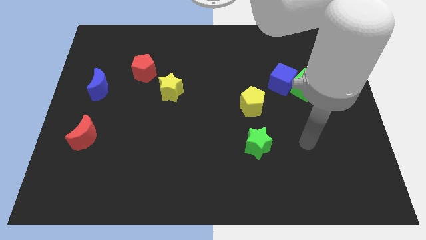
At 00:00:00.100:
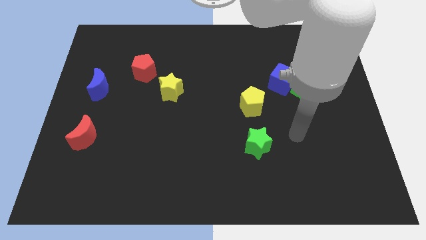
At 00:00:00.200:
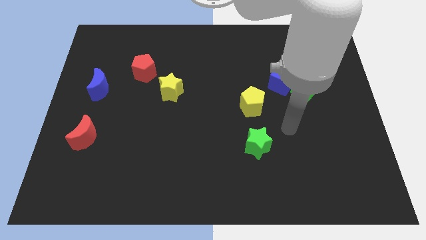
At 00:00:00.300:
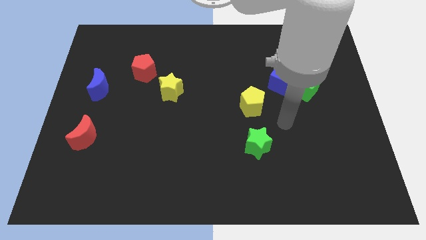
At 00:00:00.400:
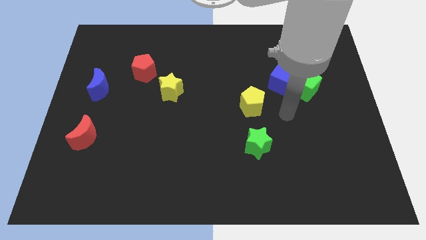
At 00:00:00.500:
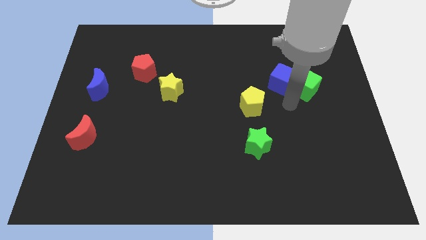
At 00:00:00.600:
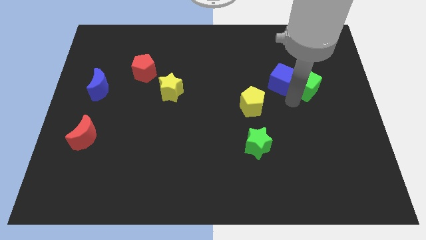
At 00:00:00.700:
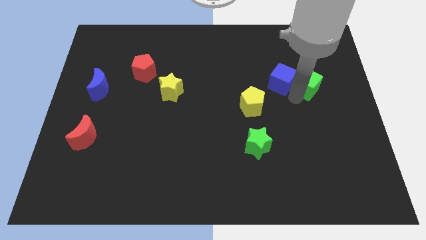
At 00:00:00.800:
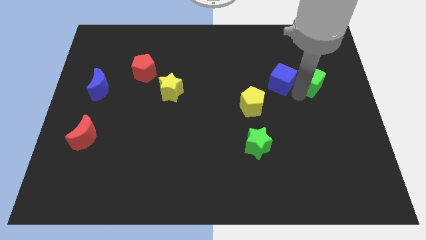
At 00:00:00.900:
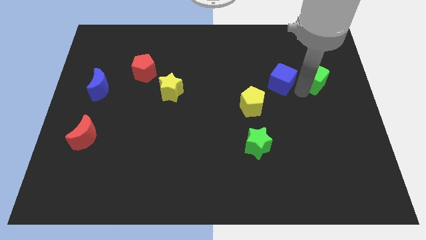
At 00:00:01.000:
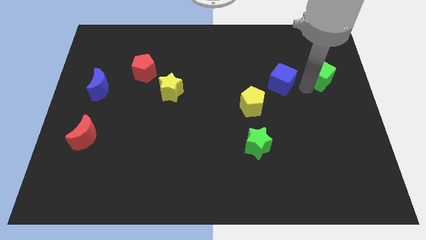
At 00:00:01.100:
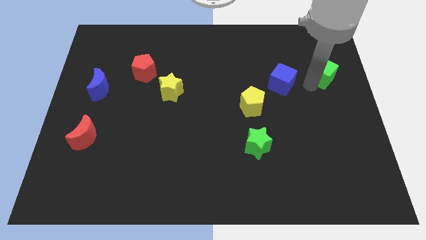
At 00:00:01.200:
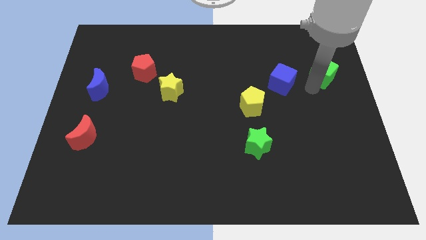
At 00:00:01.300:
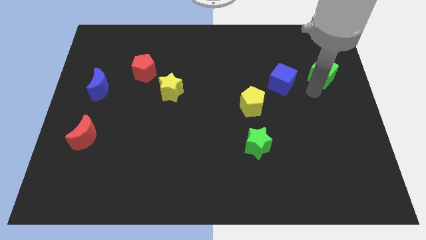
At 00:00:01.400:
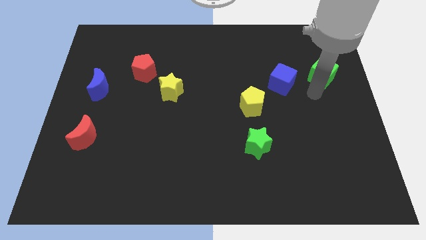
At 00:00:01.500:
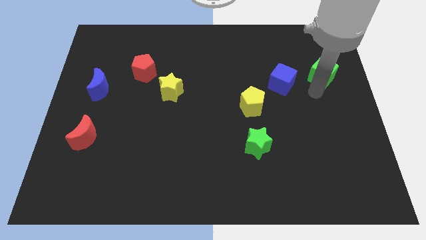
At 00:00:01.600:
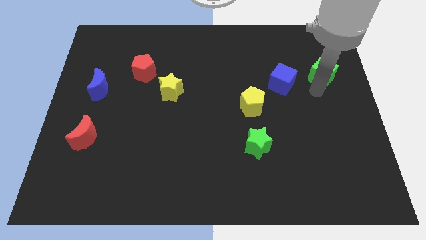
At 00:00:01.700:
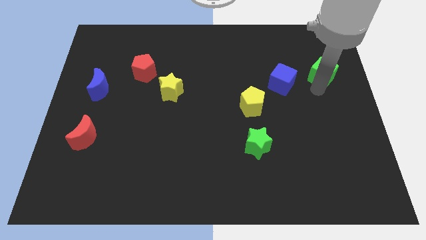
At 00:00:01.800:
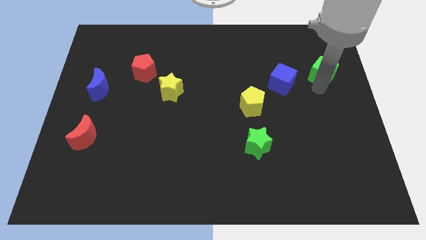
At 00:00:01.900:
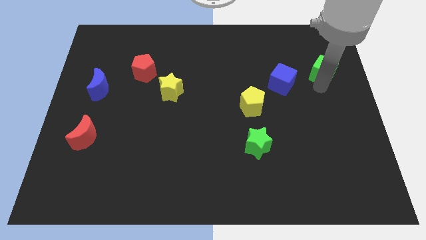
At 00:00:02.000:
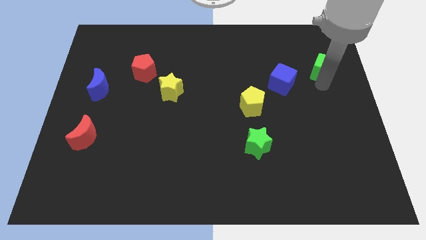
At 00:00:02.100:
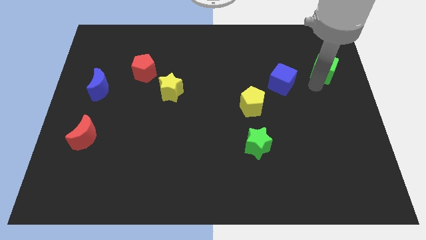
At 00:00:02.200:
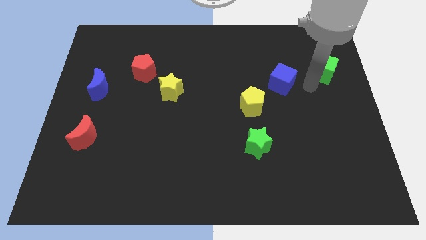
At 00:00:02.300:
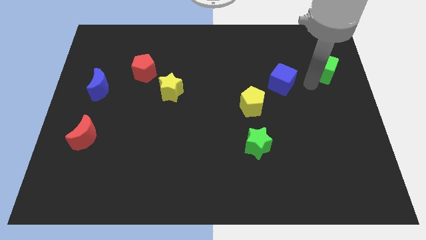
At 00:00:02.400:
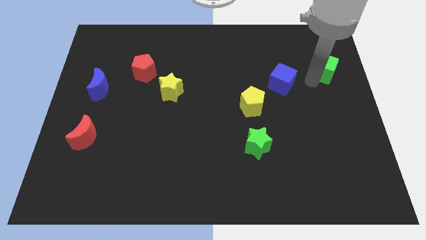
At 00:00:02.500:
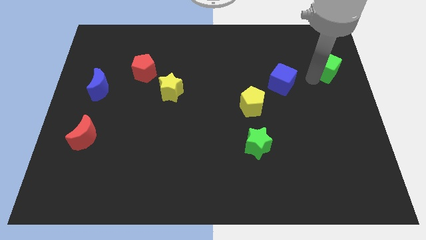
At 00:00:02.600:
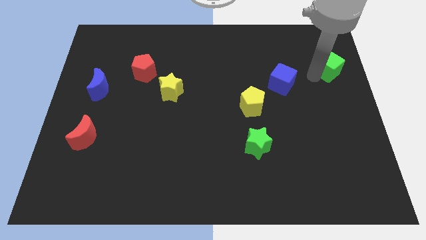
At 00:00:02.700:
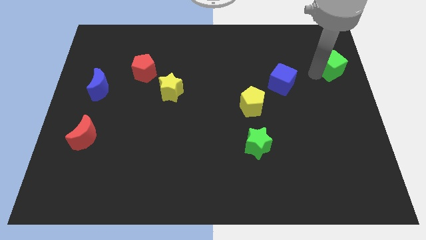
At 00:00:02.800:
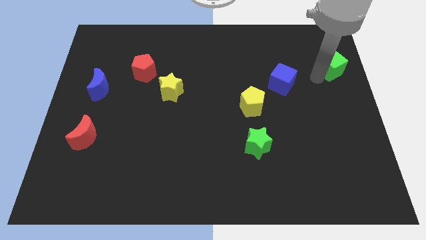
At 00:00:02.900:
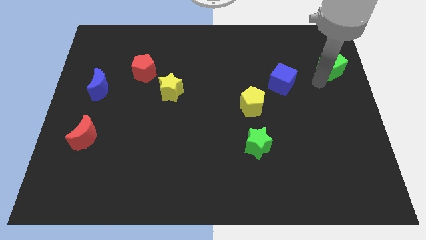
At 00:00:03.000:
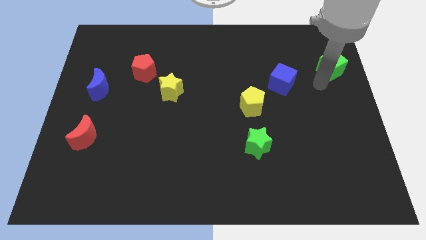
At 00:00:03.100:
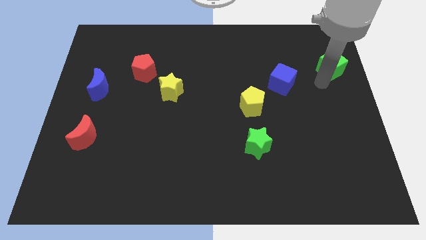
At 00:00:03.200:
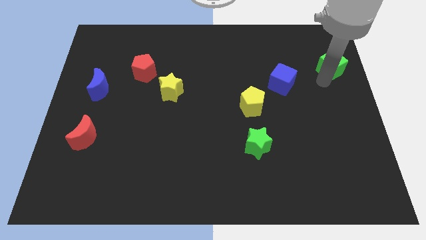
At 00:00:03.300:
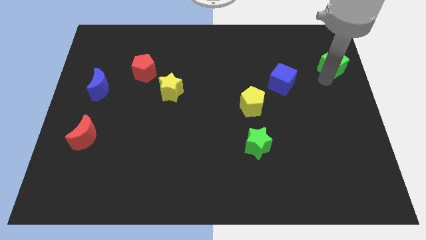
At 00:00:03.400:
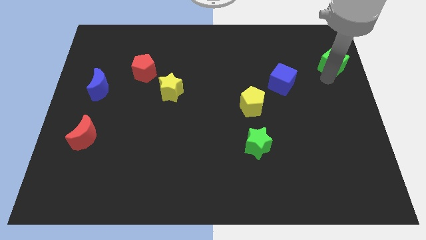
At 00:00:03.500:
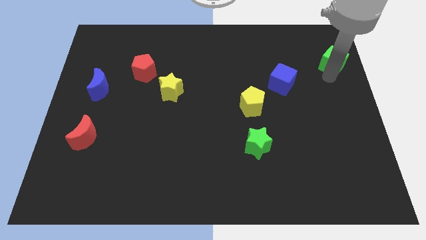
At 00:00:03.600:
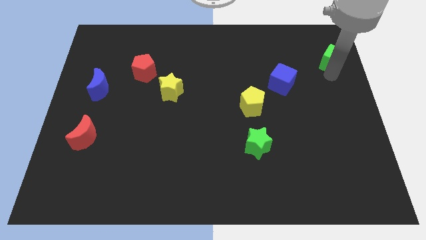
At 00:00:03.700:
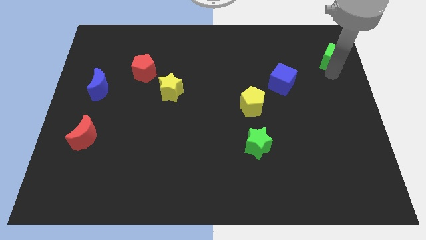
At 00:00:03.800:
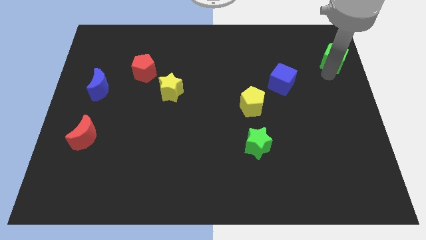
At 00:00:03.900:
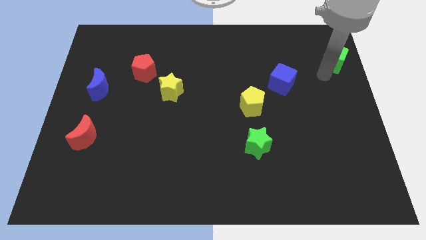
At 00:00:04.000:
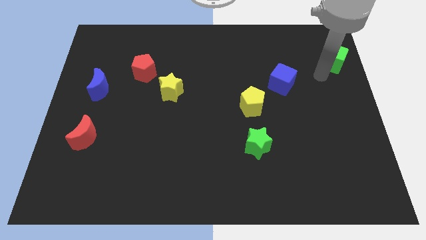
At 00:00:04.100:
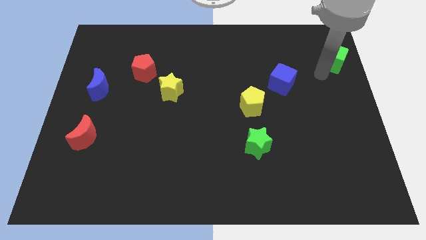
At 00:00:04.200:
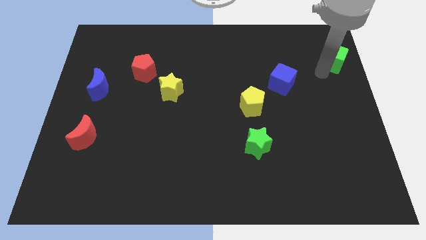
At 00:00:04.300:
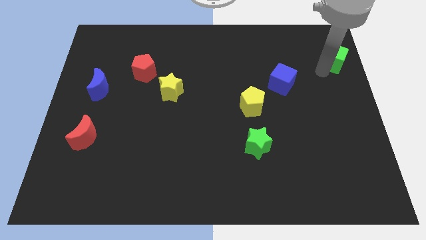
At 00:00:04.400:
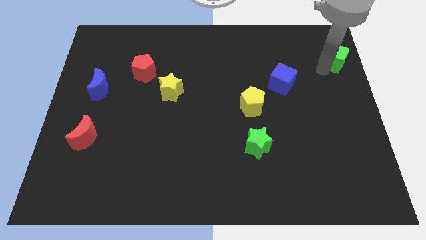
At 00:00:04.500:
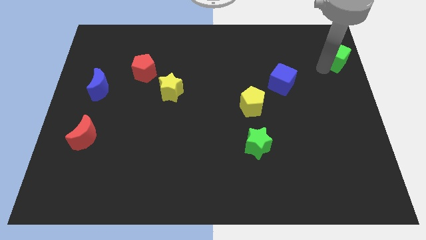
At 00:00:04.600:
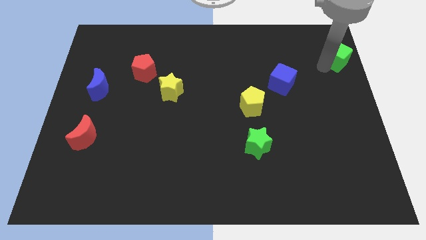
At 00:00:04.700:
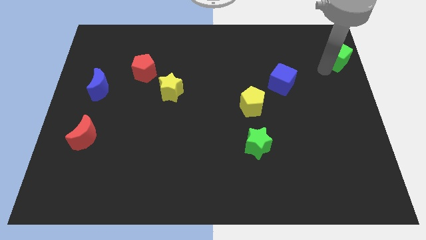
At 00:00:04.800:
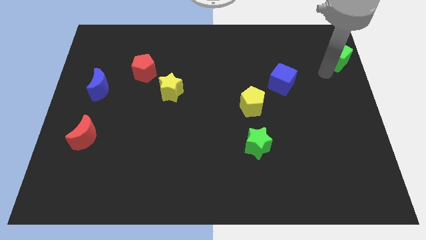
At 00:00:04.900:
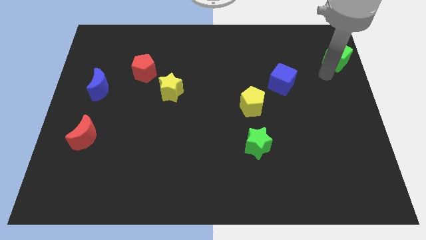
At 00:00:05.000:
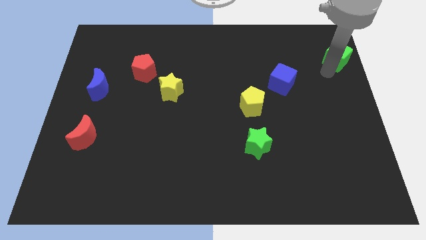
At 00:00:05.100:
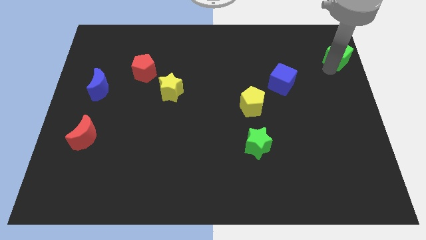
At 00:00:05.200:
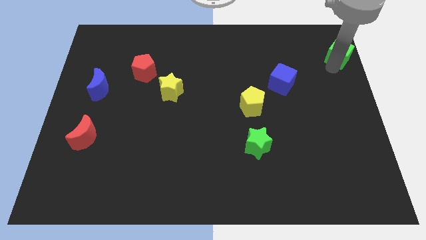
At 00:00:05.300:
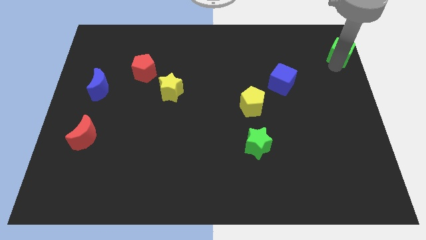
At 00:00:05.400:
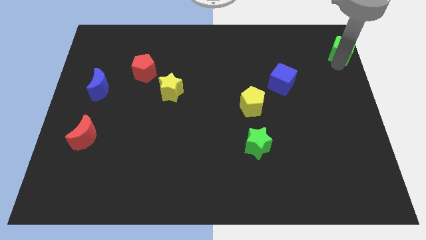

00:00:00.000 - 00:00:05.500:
put the green cube to the top right of the board

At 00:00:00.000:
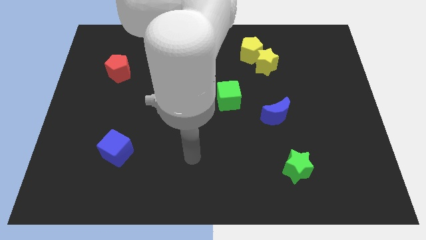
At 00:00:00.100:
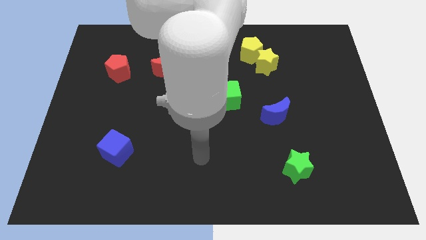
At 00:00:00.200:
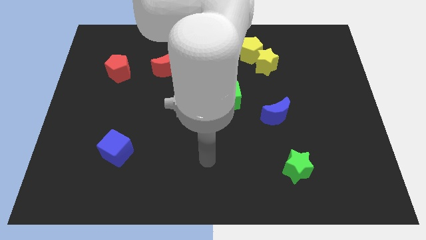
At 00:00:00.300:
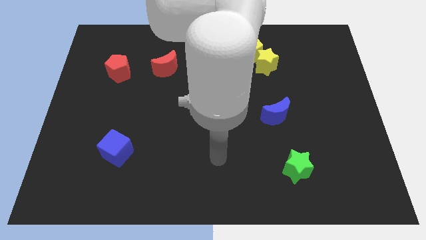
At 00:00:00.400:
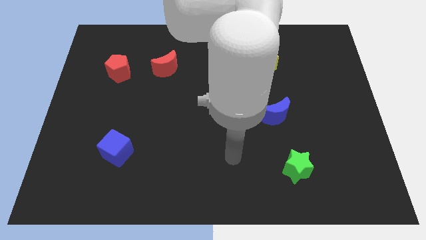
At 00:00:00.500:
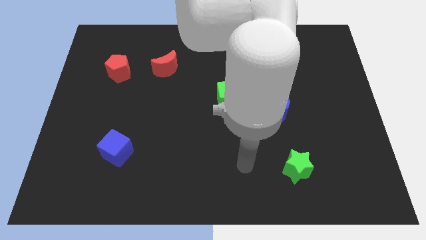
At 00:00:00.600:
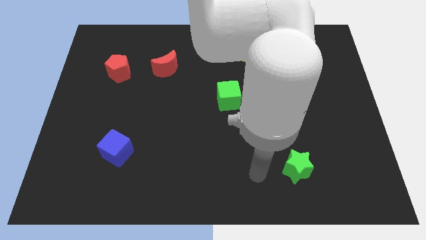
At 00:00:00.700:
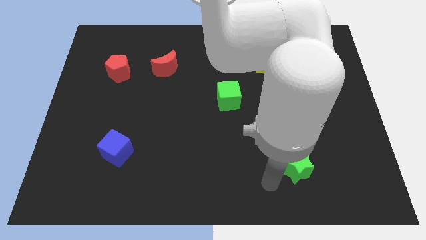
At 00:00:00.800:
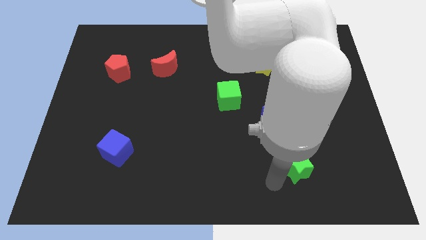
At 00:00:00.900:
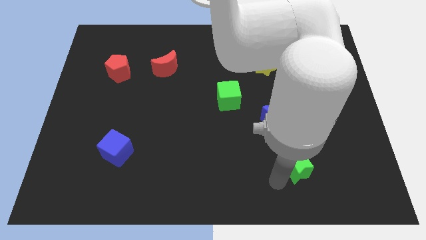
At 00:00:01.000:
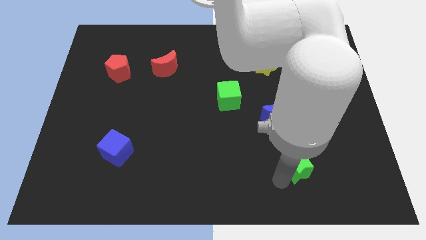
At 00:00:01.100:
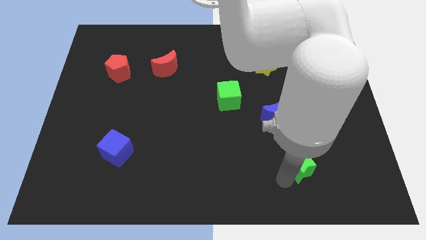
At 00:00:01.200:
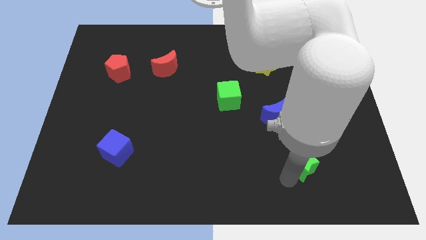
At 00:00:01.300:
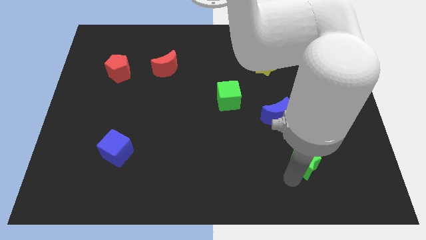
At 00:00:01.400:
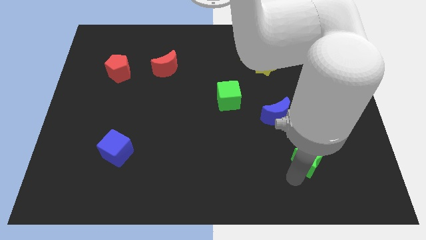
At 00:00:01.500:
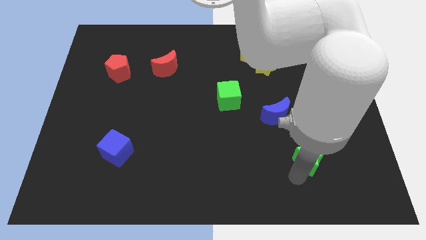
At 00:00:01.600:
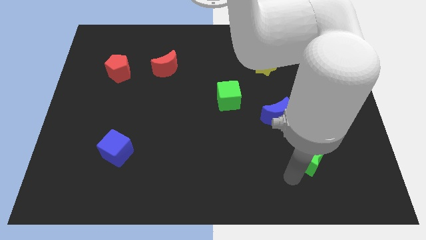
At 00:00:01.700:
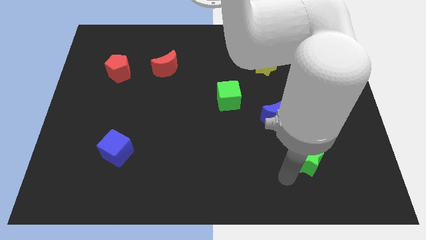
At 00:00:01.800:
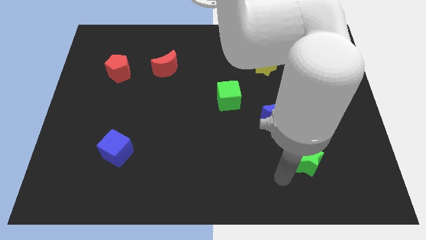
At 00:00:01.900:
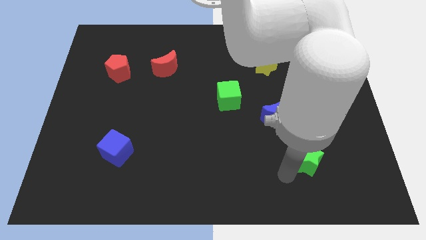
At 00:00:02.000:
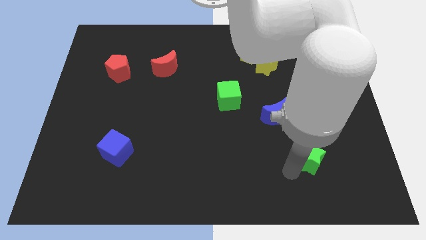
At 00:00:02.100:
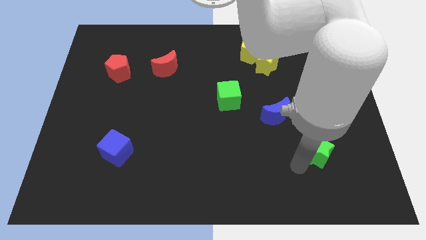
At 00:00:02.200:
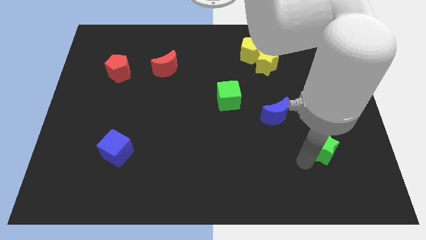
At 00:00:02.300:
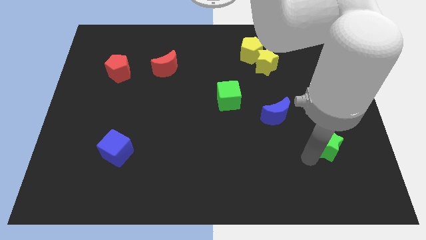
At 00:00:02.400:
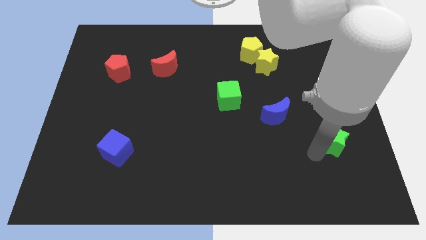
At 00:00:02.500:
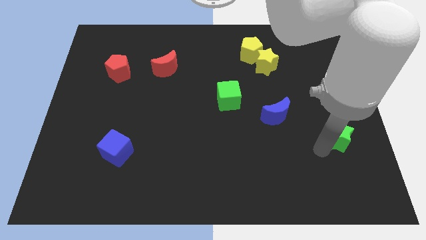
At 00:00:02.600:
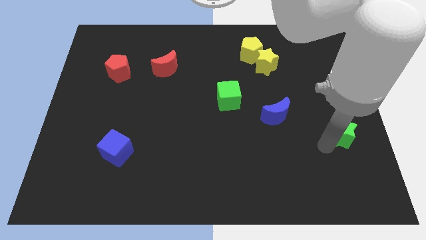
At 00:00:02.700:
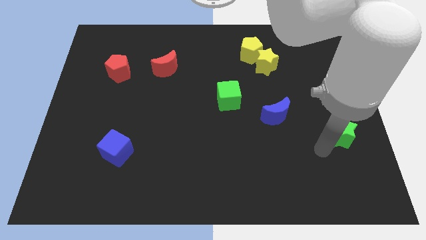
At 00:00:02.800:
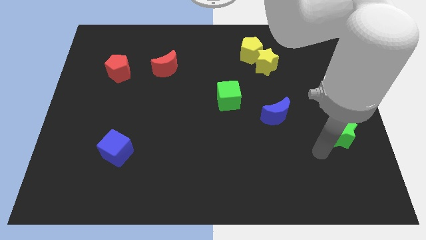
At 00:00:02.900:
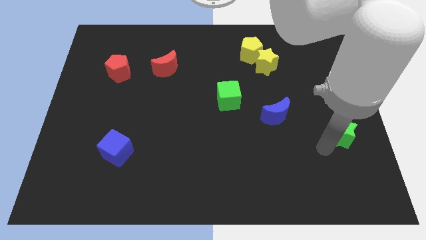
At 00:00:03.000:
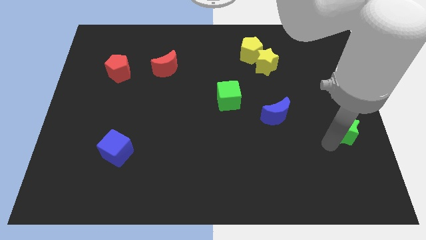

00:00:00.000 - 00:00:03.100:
move the green star to the center right
